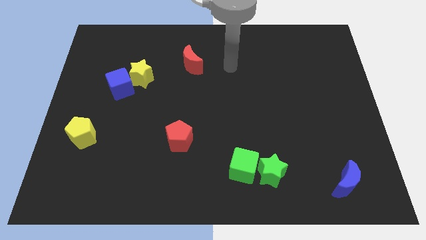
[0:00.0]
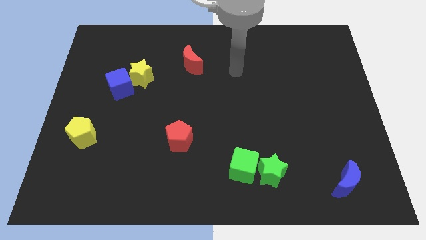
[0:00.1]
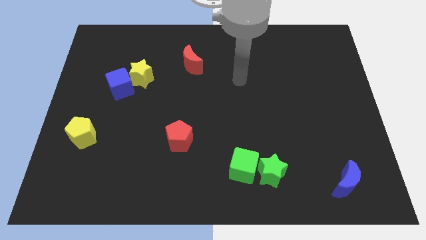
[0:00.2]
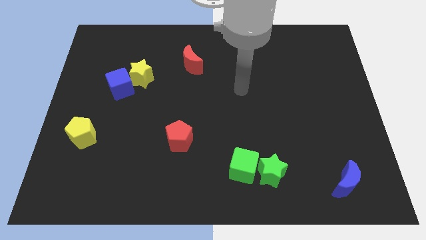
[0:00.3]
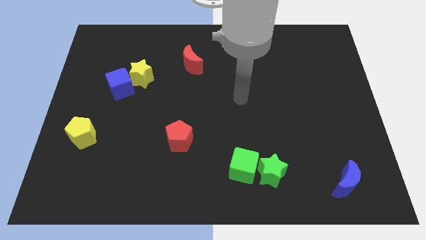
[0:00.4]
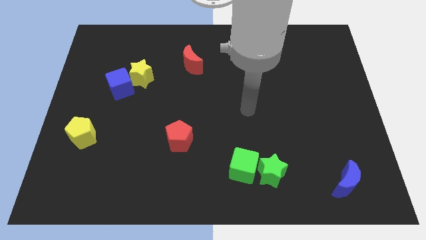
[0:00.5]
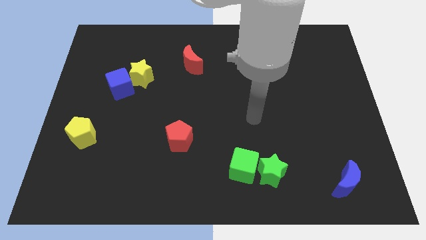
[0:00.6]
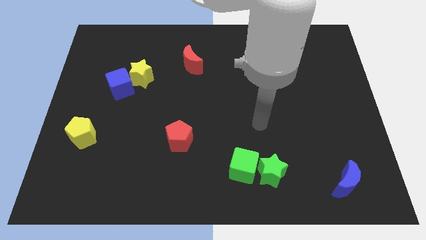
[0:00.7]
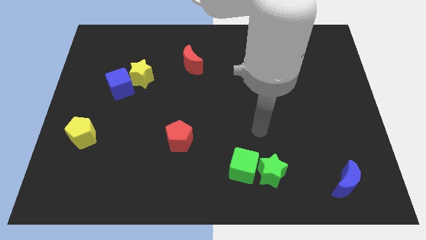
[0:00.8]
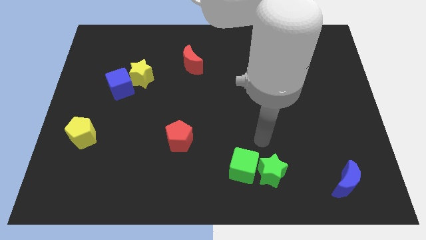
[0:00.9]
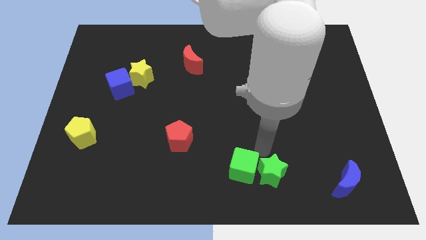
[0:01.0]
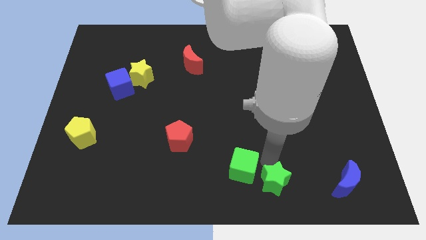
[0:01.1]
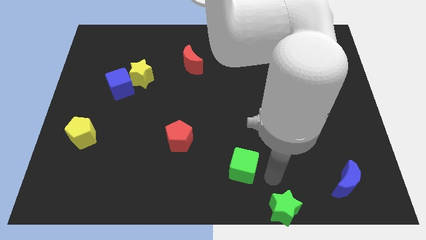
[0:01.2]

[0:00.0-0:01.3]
pull the green cube apart from the green star

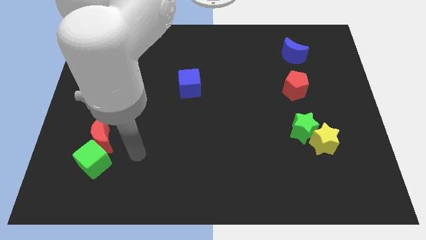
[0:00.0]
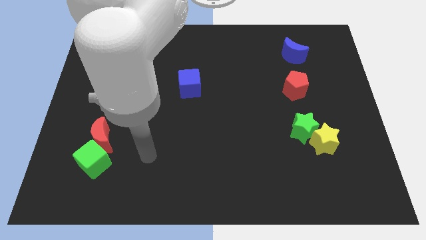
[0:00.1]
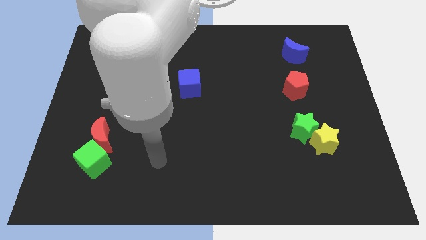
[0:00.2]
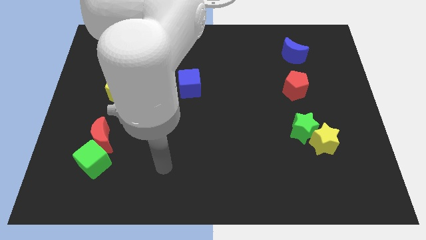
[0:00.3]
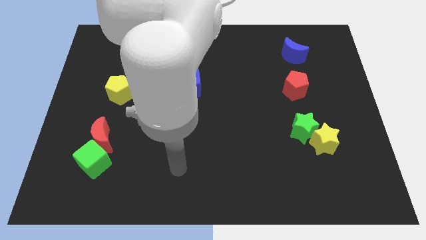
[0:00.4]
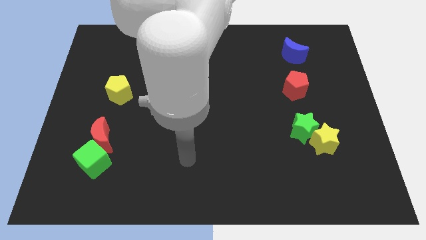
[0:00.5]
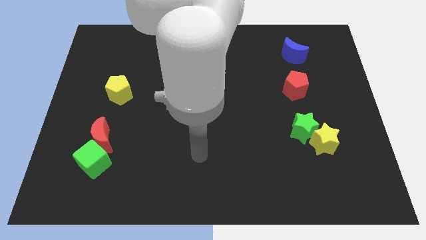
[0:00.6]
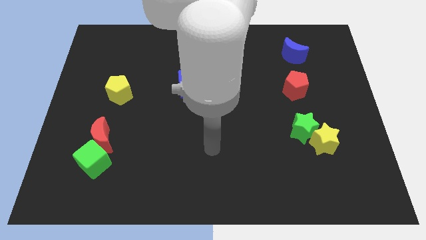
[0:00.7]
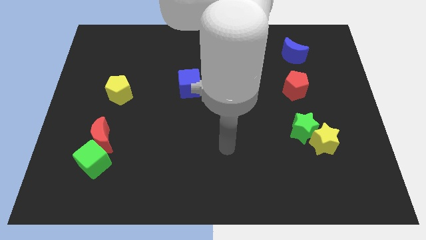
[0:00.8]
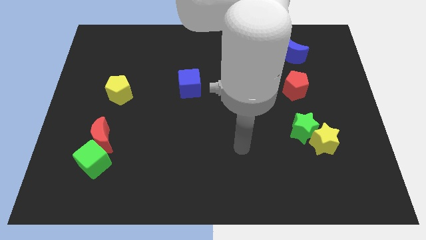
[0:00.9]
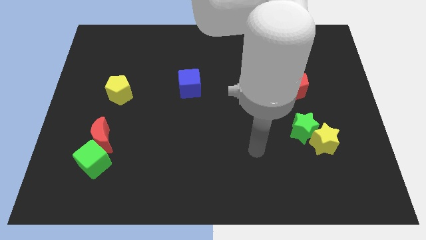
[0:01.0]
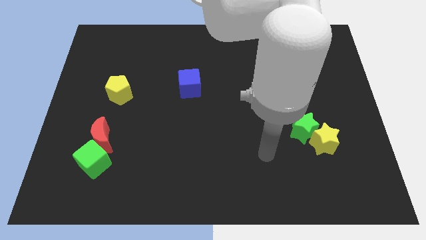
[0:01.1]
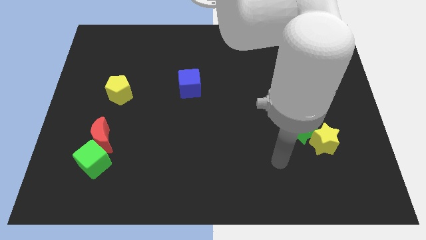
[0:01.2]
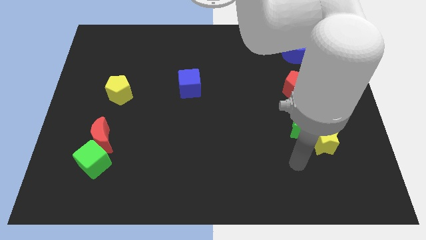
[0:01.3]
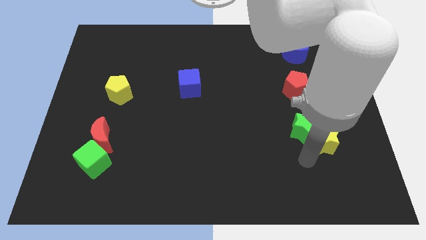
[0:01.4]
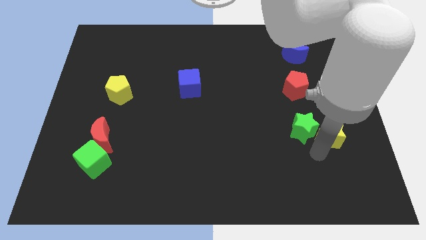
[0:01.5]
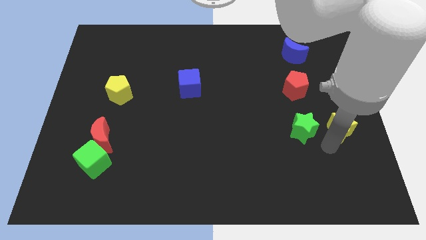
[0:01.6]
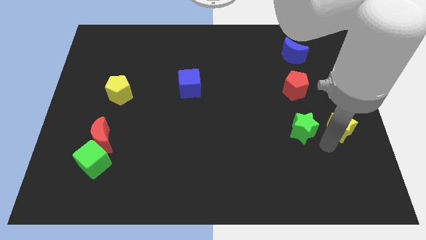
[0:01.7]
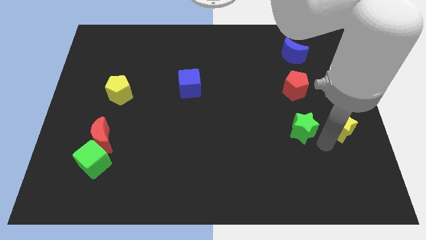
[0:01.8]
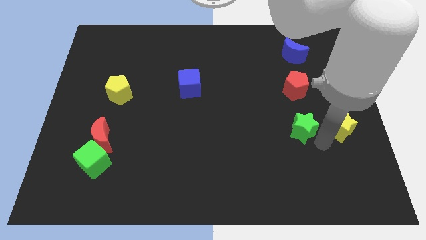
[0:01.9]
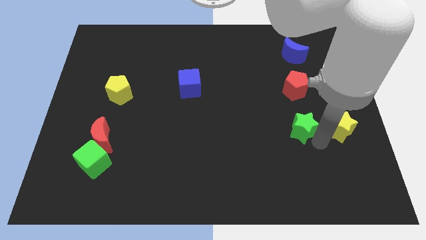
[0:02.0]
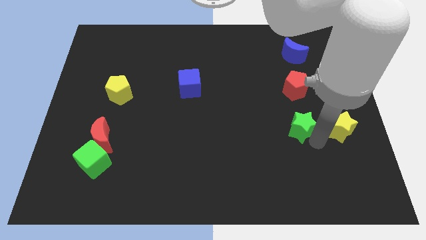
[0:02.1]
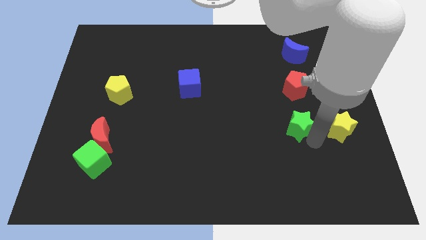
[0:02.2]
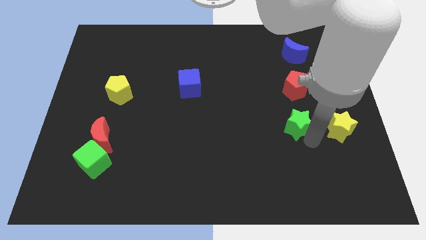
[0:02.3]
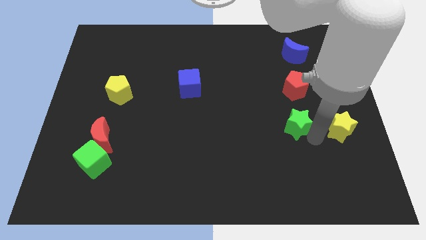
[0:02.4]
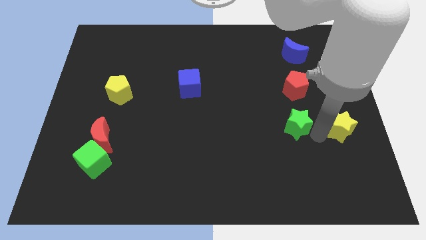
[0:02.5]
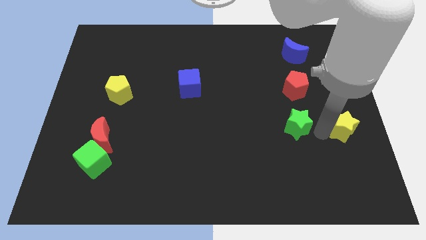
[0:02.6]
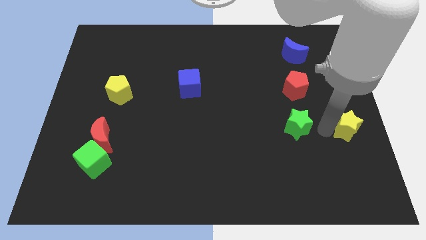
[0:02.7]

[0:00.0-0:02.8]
move the green star away from the yellow star

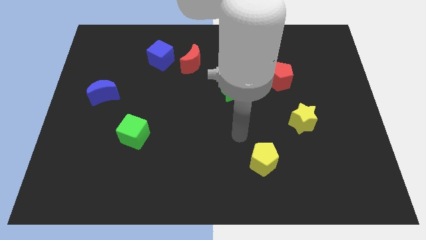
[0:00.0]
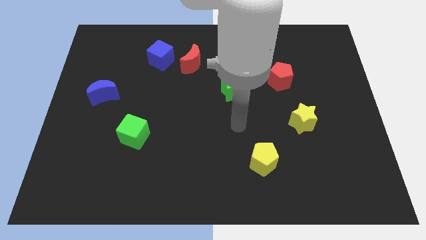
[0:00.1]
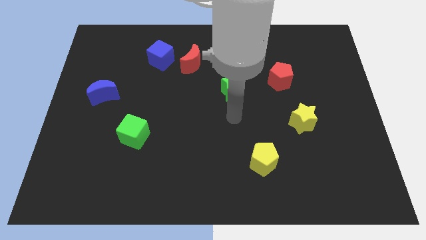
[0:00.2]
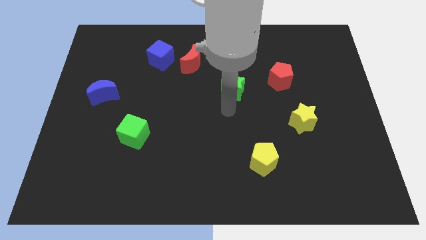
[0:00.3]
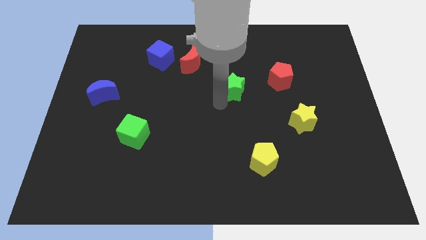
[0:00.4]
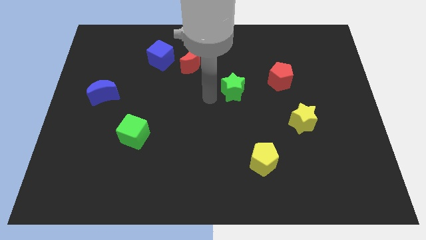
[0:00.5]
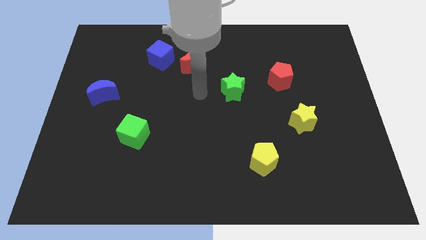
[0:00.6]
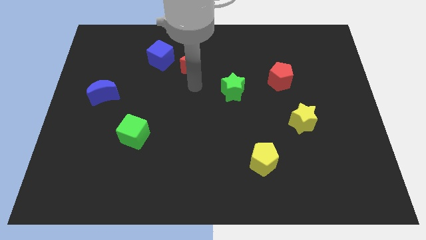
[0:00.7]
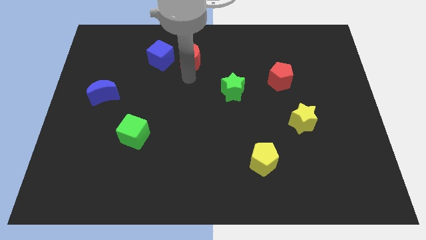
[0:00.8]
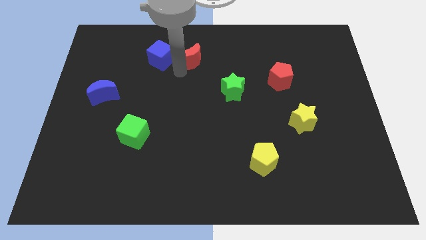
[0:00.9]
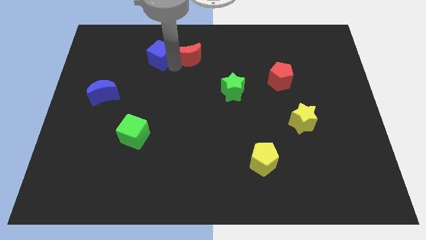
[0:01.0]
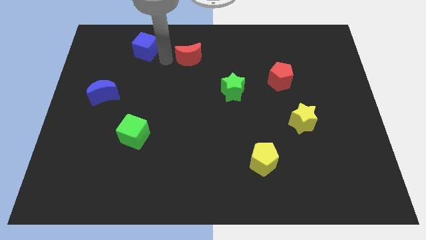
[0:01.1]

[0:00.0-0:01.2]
pull the red moon apart from the blue cube

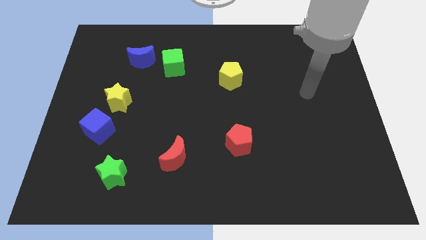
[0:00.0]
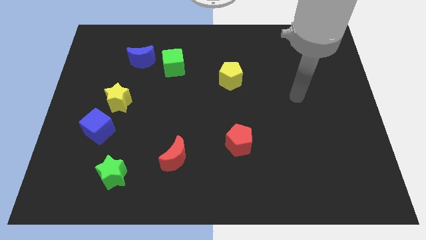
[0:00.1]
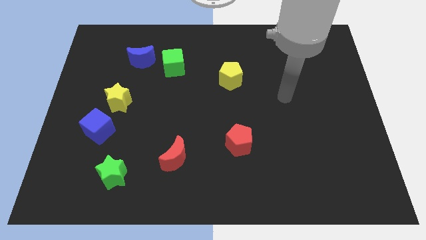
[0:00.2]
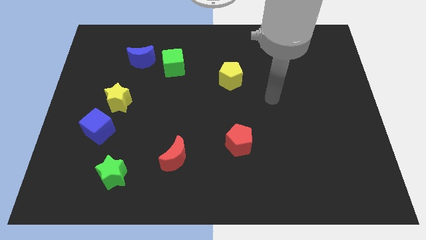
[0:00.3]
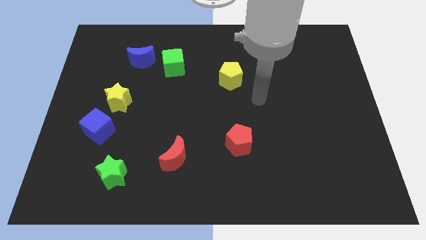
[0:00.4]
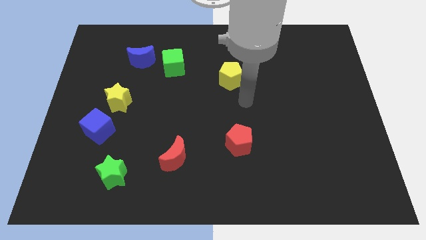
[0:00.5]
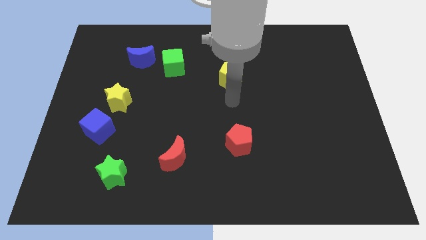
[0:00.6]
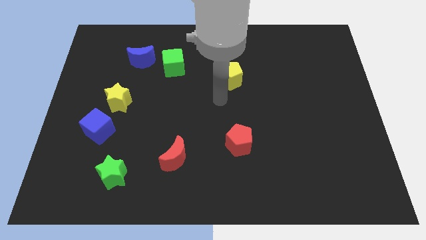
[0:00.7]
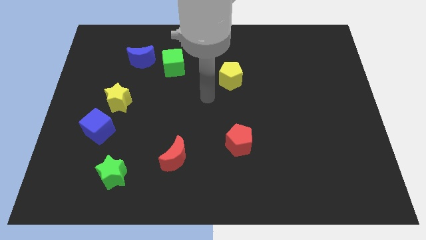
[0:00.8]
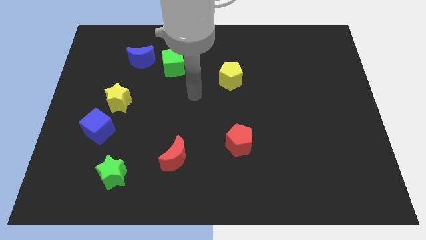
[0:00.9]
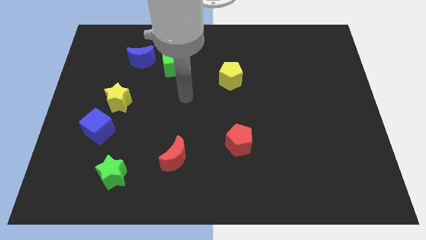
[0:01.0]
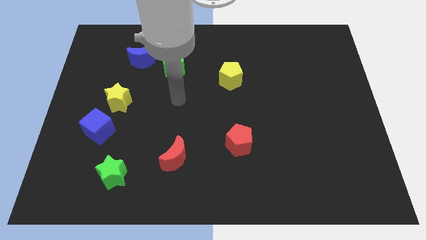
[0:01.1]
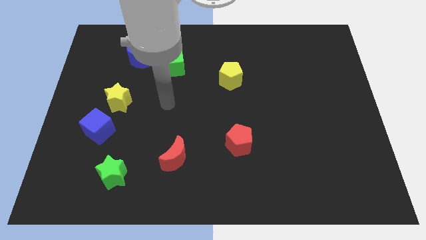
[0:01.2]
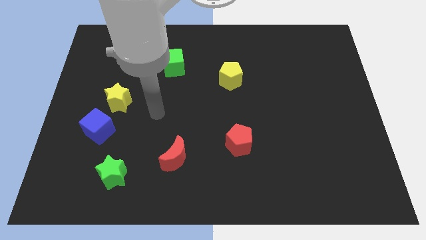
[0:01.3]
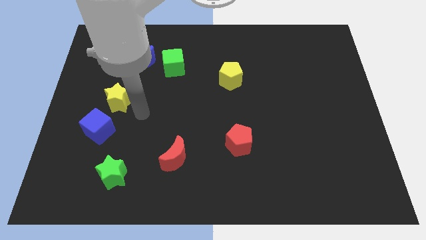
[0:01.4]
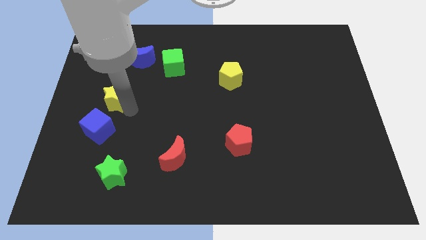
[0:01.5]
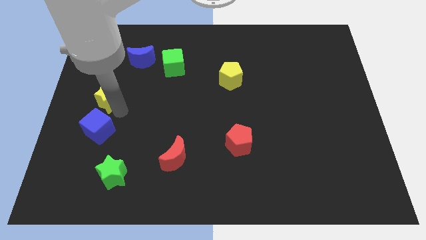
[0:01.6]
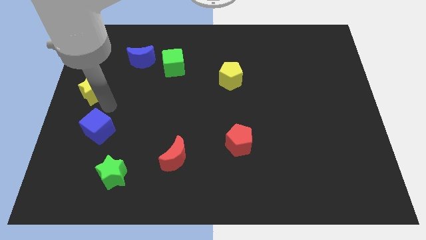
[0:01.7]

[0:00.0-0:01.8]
move the blue cube away from the yellow star

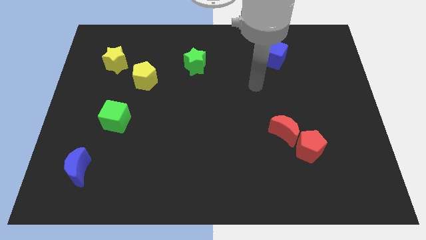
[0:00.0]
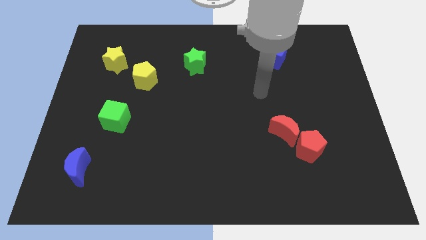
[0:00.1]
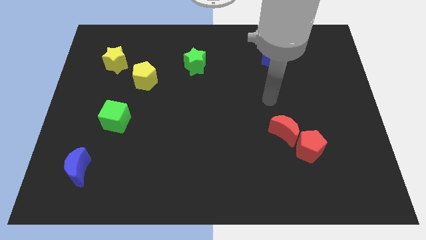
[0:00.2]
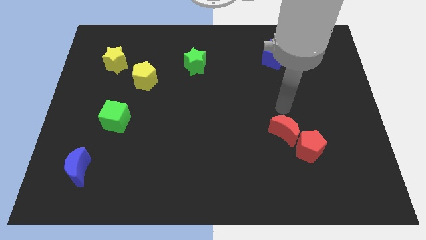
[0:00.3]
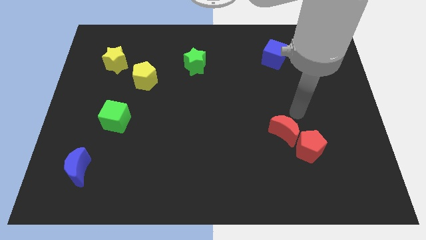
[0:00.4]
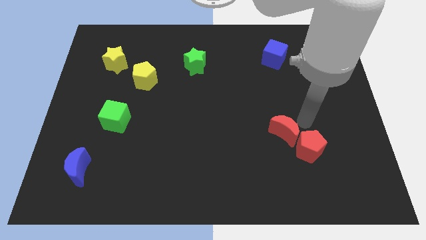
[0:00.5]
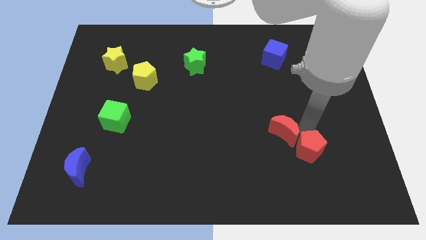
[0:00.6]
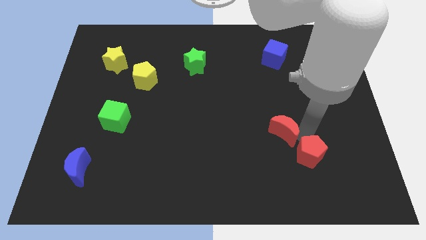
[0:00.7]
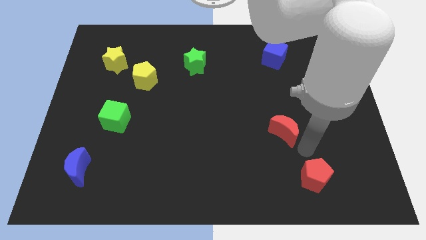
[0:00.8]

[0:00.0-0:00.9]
pull the red moon apart from the red pentagon

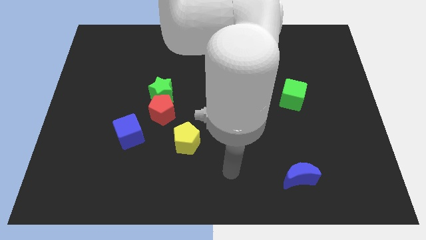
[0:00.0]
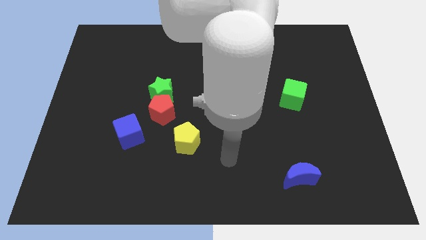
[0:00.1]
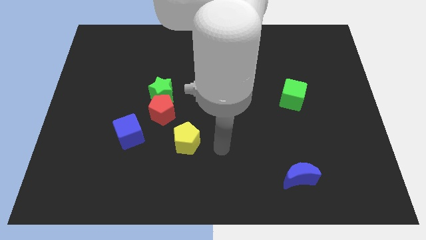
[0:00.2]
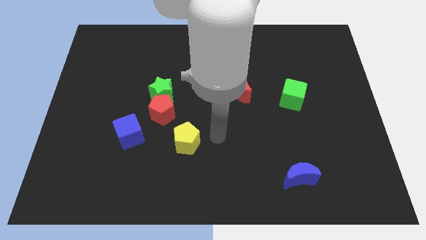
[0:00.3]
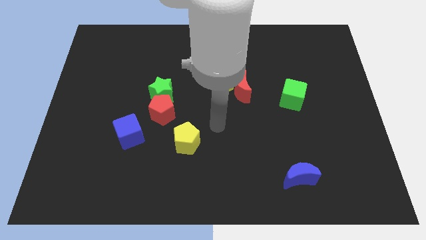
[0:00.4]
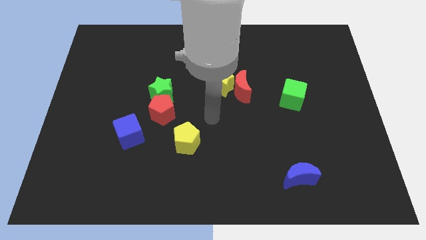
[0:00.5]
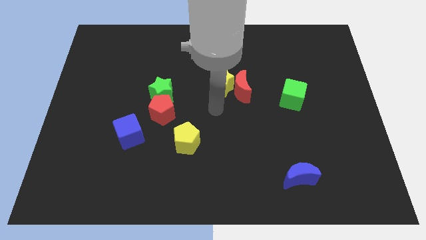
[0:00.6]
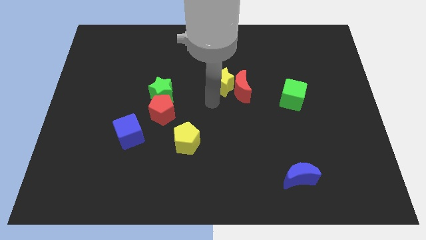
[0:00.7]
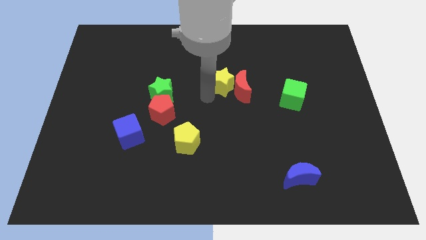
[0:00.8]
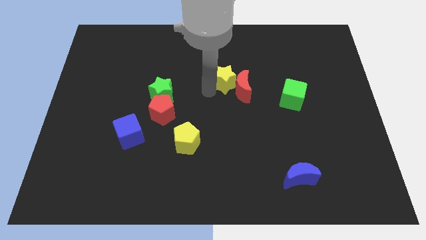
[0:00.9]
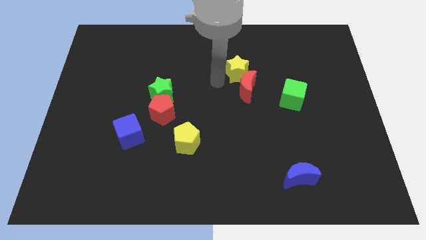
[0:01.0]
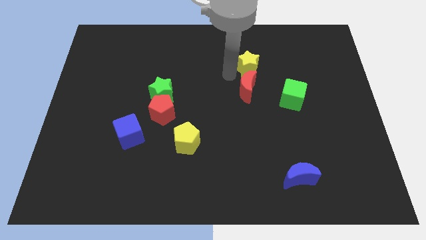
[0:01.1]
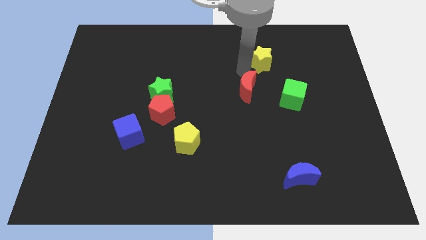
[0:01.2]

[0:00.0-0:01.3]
move the red moon away from the yellow star
